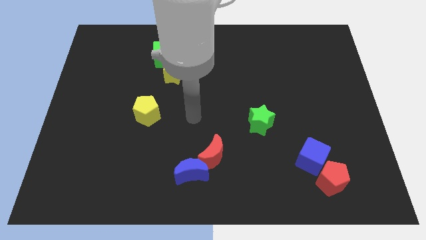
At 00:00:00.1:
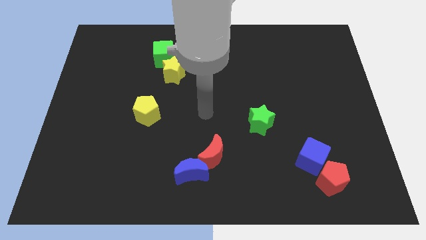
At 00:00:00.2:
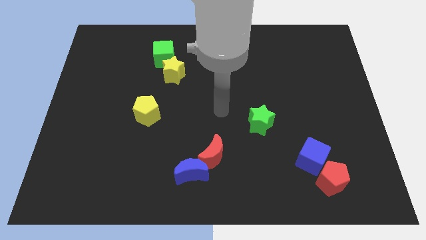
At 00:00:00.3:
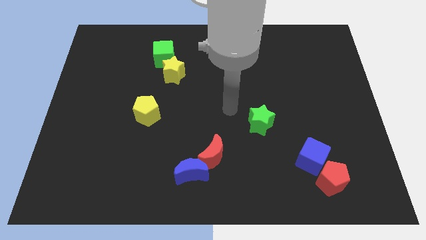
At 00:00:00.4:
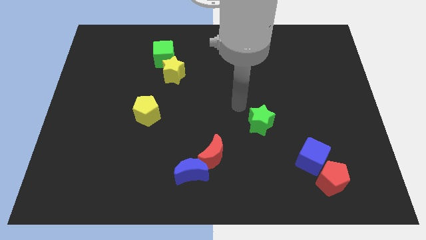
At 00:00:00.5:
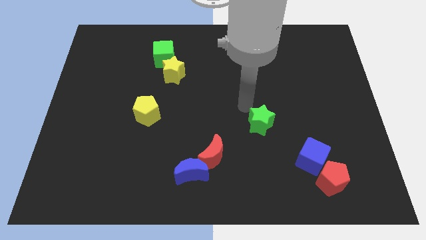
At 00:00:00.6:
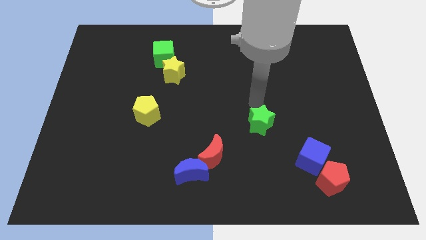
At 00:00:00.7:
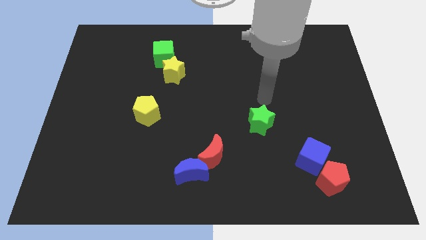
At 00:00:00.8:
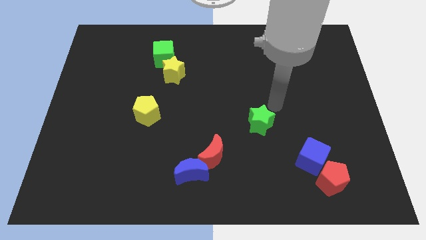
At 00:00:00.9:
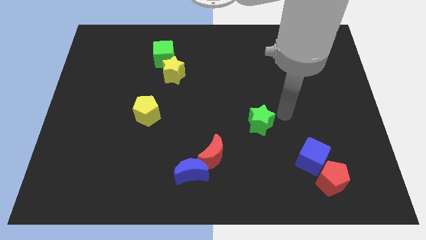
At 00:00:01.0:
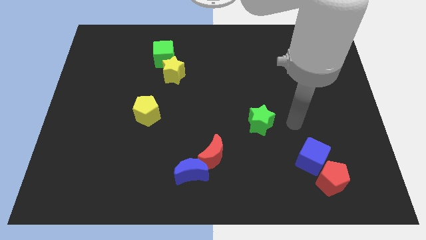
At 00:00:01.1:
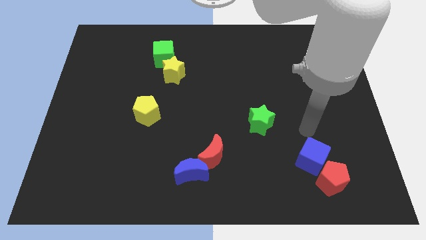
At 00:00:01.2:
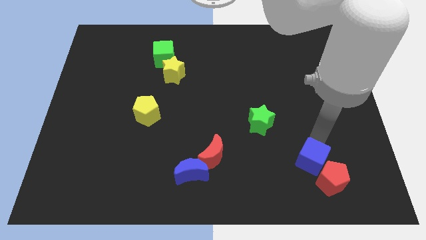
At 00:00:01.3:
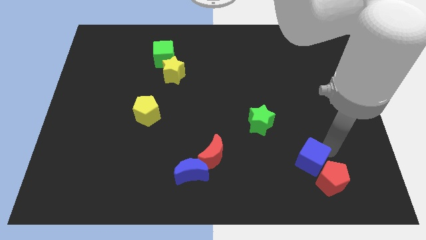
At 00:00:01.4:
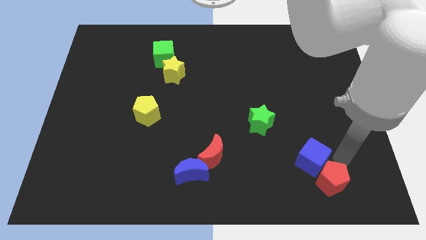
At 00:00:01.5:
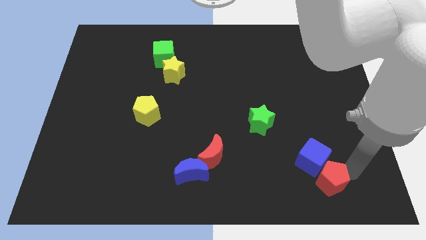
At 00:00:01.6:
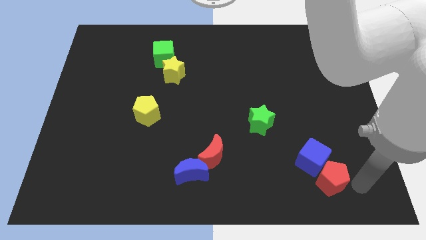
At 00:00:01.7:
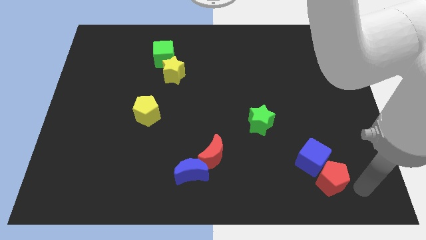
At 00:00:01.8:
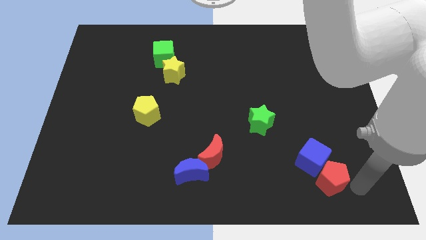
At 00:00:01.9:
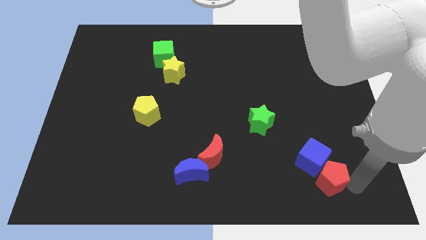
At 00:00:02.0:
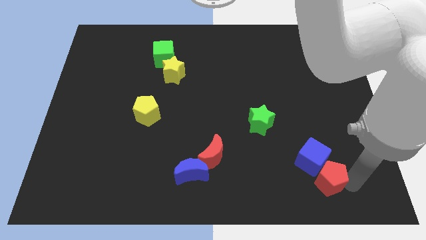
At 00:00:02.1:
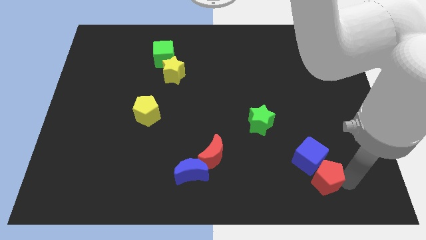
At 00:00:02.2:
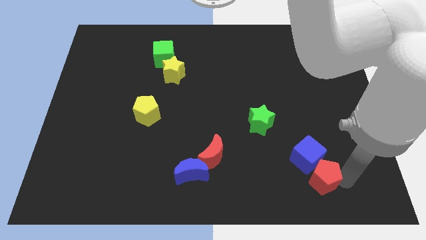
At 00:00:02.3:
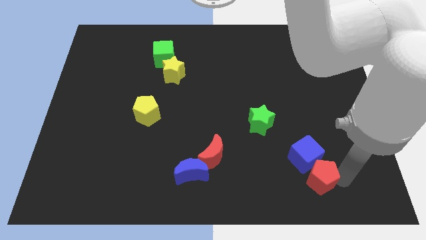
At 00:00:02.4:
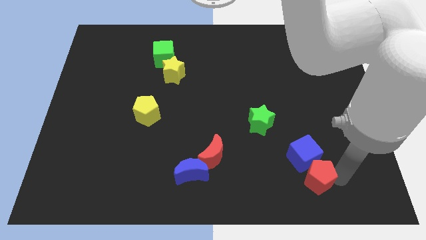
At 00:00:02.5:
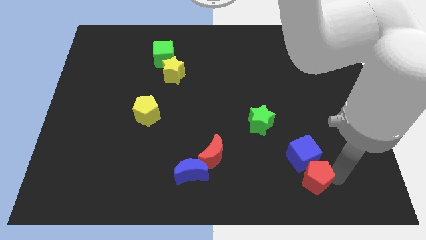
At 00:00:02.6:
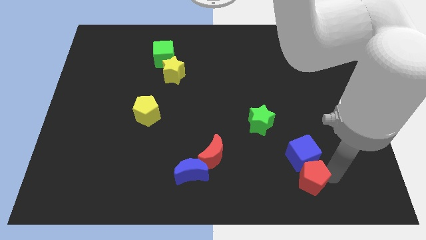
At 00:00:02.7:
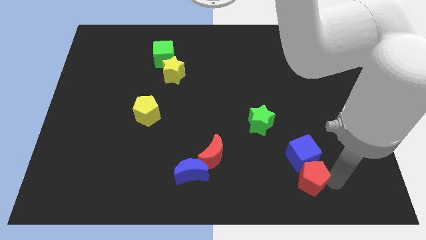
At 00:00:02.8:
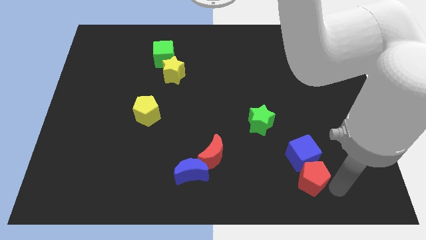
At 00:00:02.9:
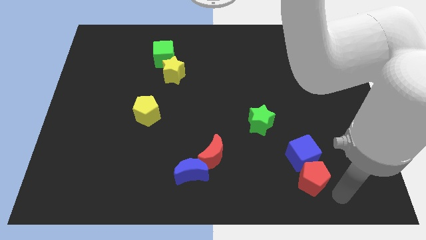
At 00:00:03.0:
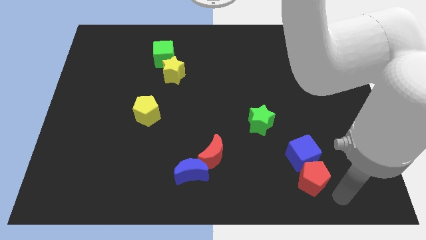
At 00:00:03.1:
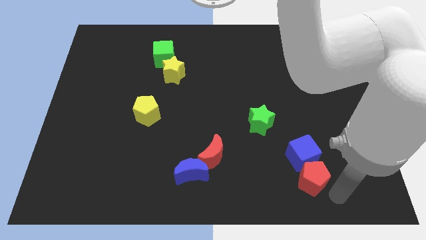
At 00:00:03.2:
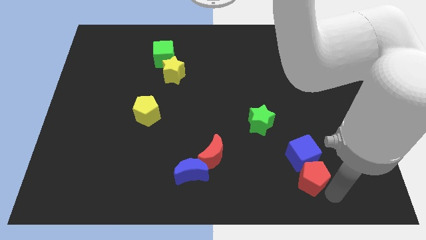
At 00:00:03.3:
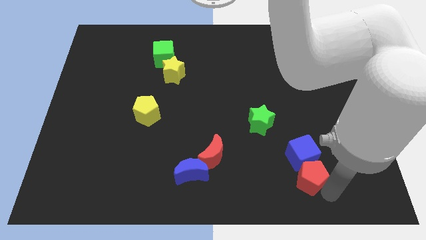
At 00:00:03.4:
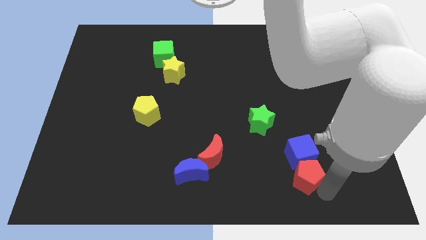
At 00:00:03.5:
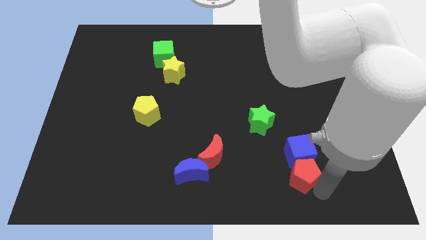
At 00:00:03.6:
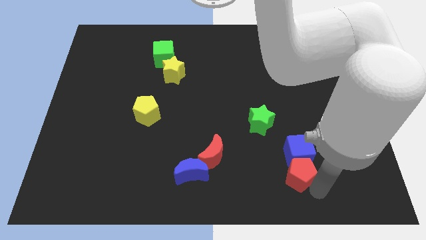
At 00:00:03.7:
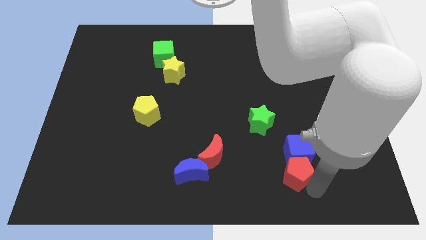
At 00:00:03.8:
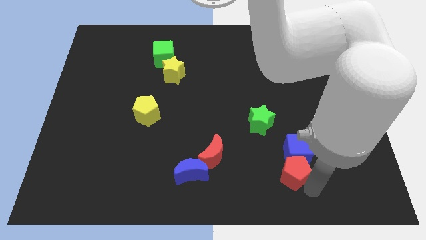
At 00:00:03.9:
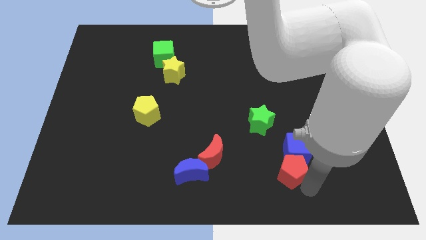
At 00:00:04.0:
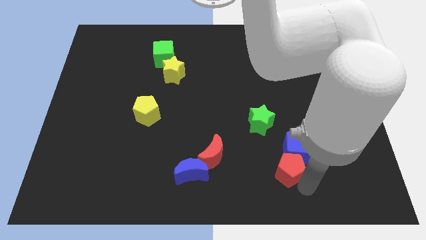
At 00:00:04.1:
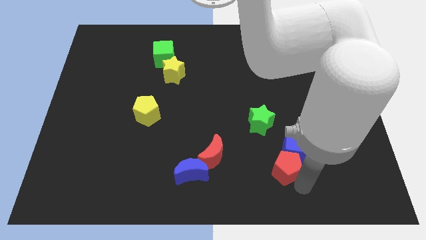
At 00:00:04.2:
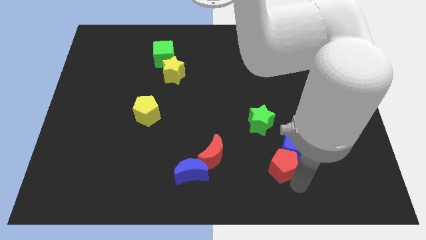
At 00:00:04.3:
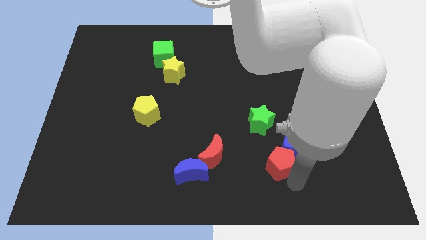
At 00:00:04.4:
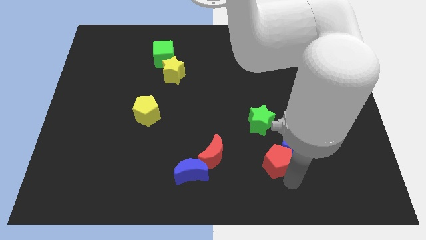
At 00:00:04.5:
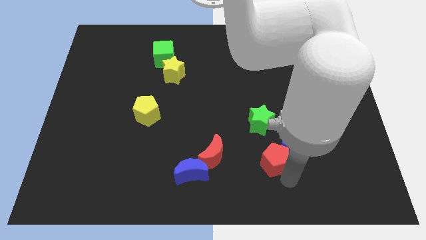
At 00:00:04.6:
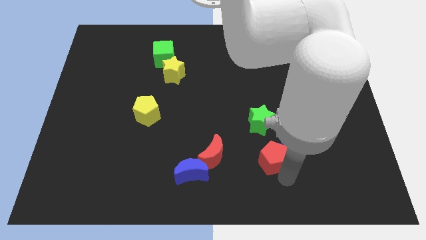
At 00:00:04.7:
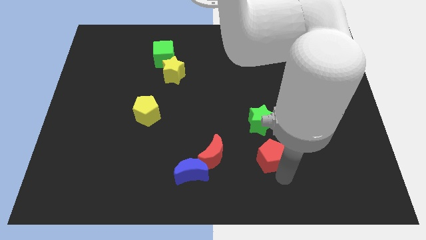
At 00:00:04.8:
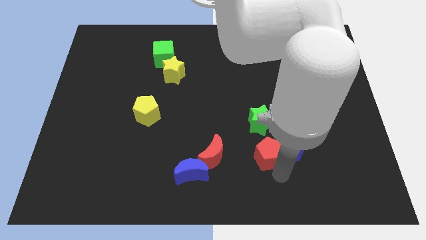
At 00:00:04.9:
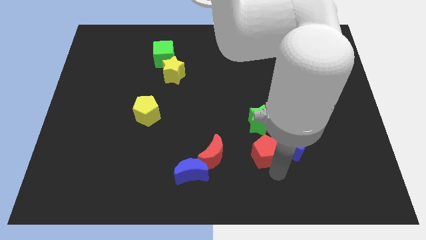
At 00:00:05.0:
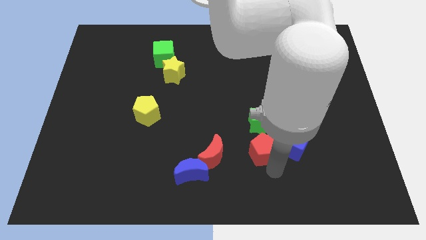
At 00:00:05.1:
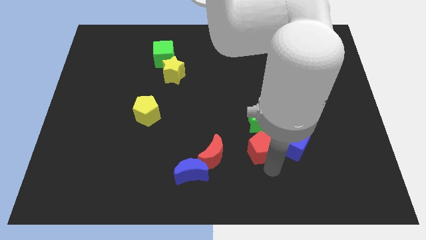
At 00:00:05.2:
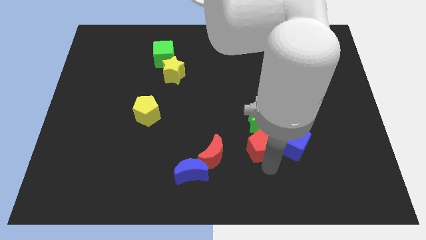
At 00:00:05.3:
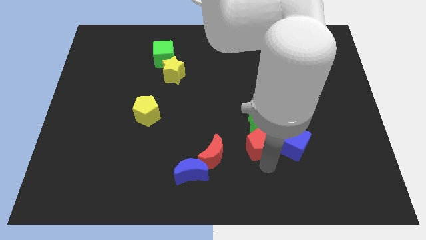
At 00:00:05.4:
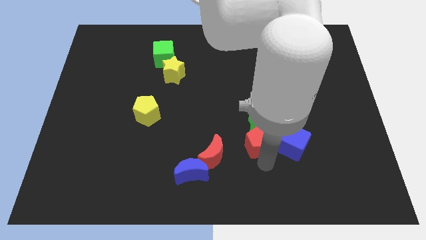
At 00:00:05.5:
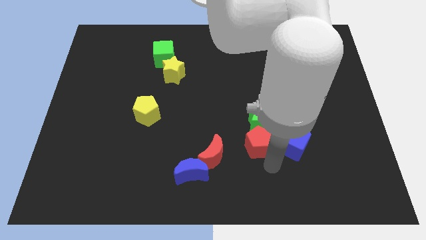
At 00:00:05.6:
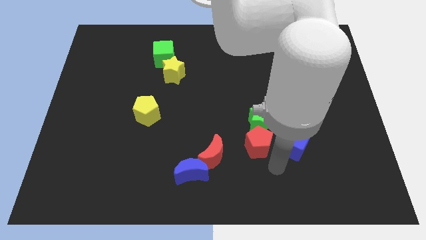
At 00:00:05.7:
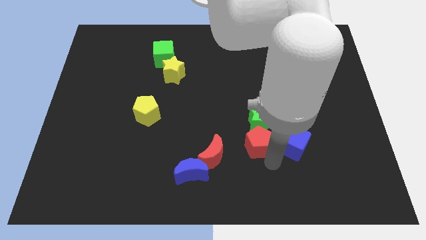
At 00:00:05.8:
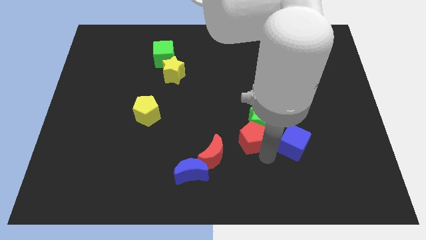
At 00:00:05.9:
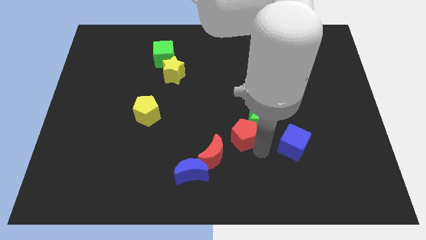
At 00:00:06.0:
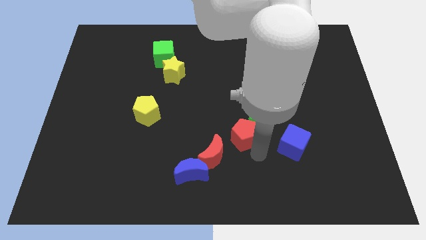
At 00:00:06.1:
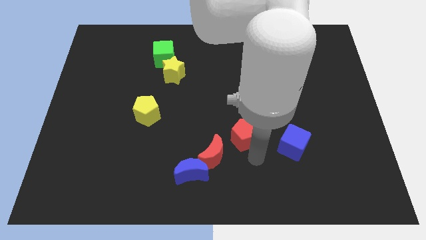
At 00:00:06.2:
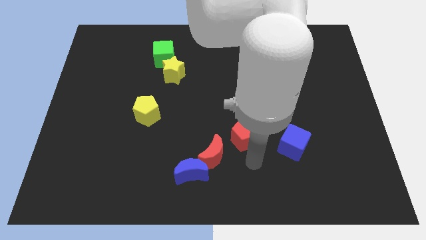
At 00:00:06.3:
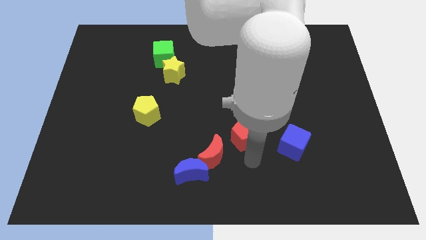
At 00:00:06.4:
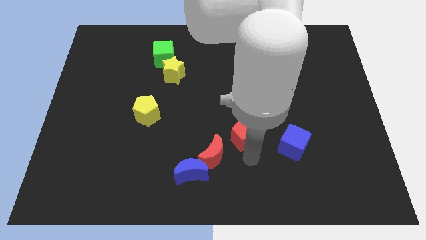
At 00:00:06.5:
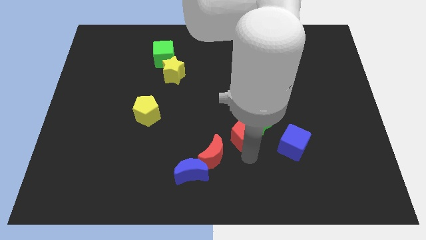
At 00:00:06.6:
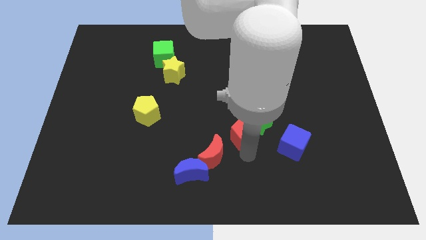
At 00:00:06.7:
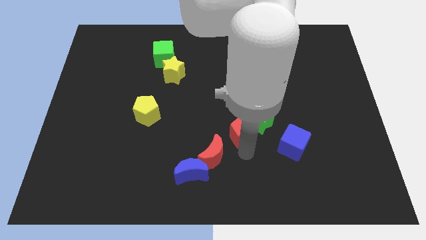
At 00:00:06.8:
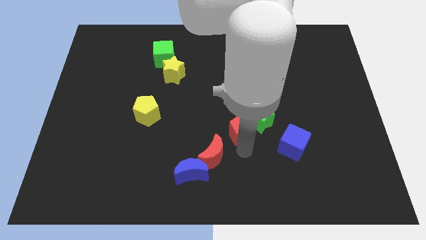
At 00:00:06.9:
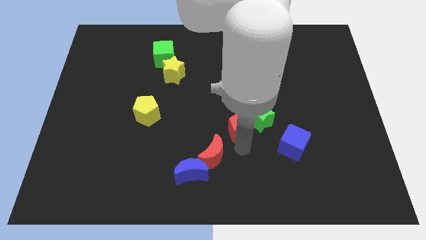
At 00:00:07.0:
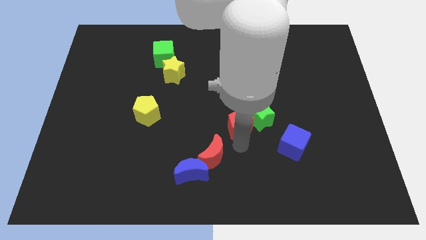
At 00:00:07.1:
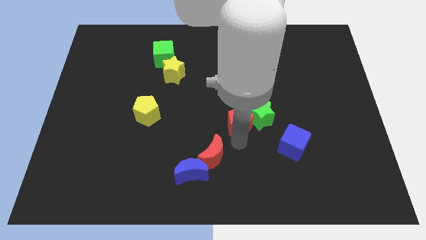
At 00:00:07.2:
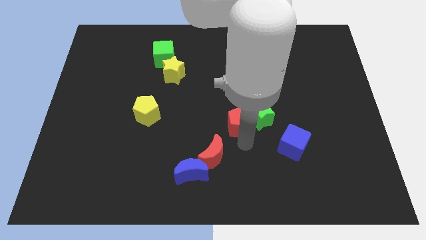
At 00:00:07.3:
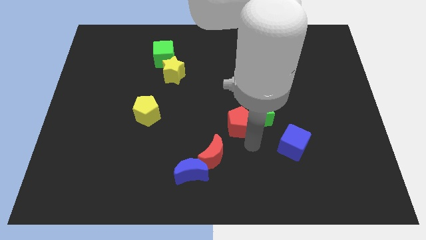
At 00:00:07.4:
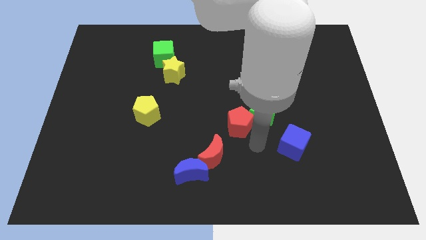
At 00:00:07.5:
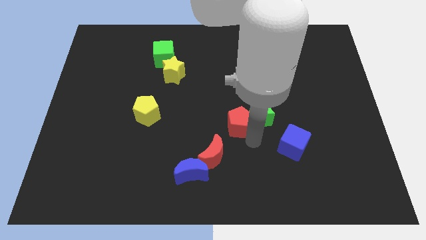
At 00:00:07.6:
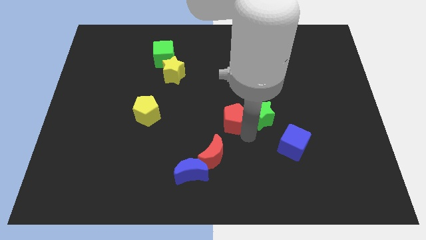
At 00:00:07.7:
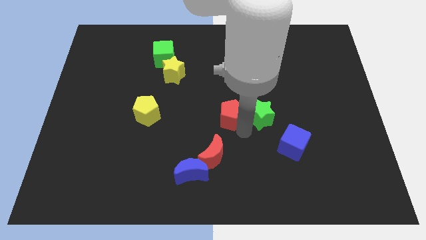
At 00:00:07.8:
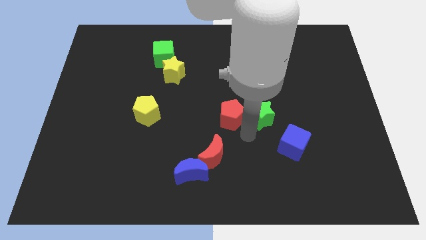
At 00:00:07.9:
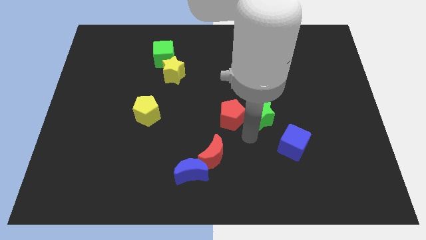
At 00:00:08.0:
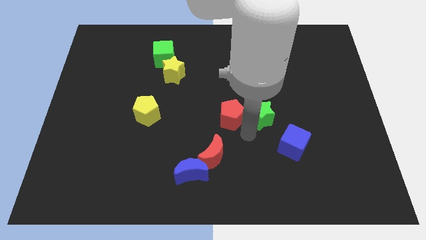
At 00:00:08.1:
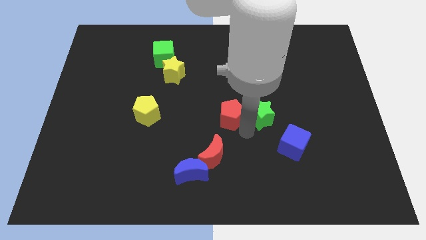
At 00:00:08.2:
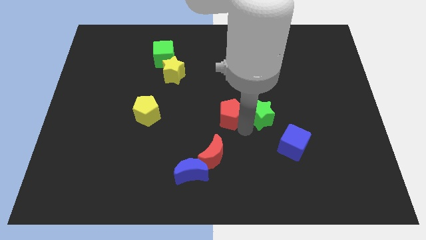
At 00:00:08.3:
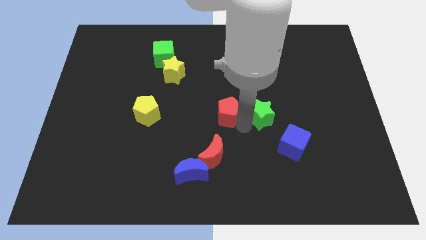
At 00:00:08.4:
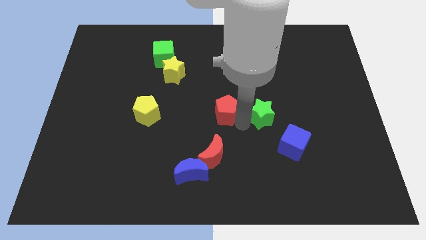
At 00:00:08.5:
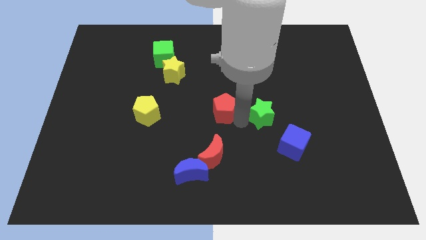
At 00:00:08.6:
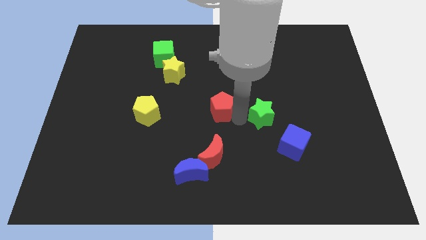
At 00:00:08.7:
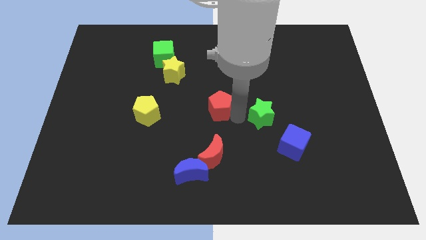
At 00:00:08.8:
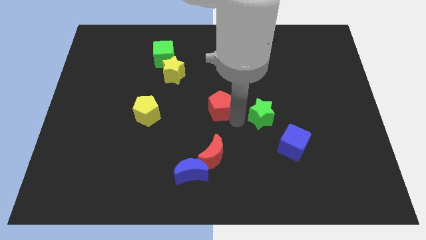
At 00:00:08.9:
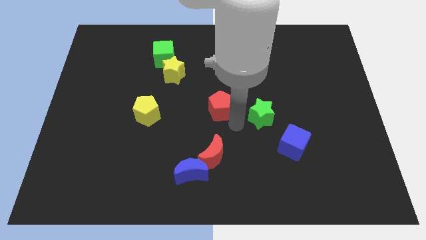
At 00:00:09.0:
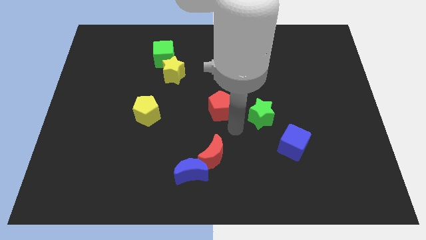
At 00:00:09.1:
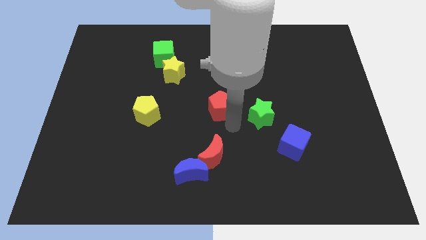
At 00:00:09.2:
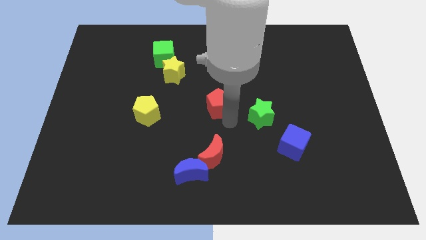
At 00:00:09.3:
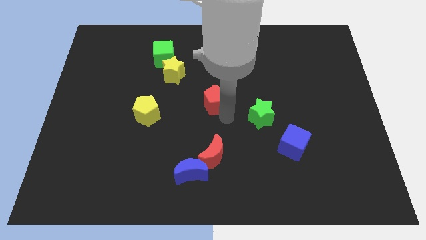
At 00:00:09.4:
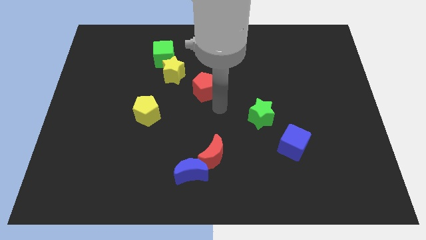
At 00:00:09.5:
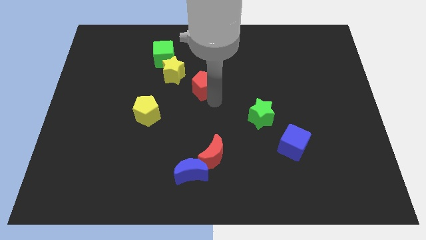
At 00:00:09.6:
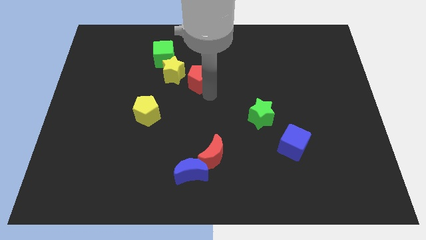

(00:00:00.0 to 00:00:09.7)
push the red pentagon to the bottom right side of the green cube
